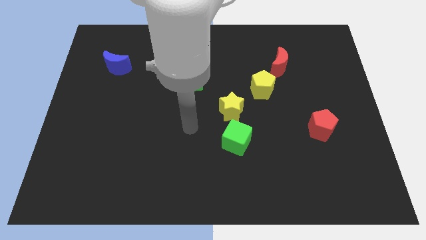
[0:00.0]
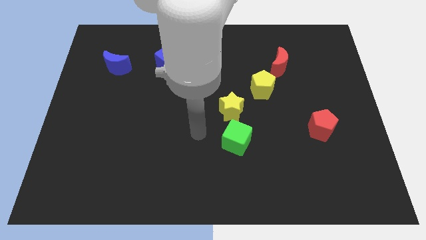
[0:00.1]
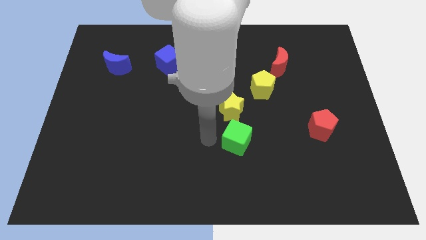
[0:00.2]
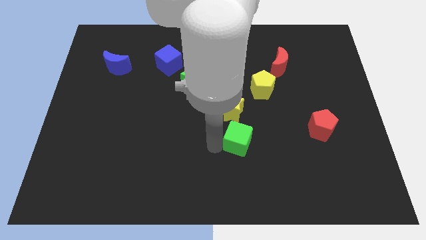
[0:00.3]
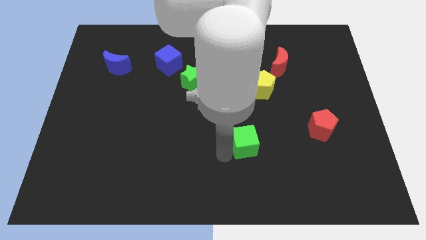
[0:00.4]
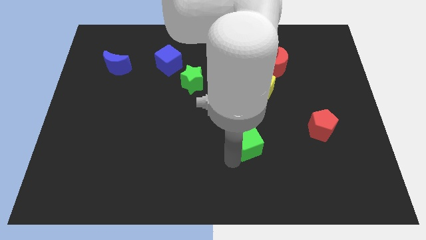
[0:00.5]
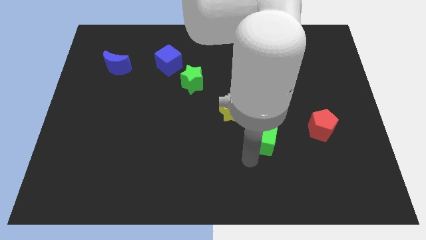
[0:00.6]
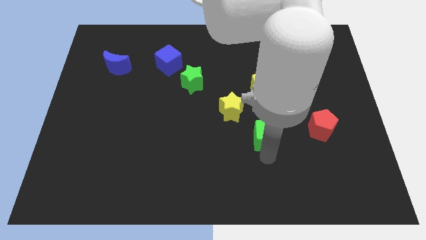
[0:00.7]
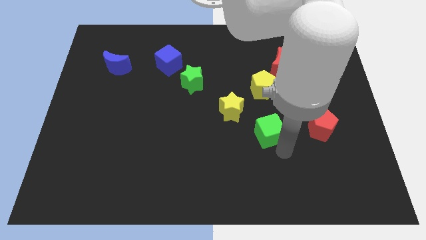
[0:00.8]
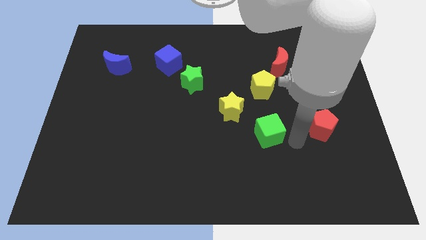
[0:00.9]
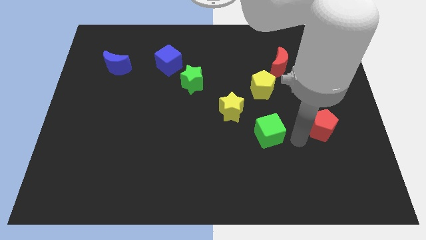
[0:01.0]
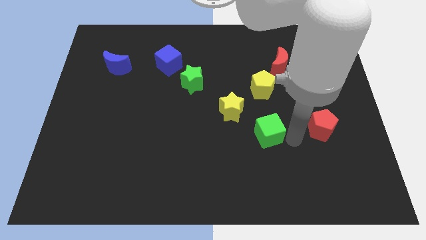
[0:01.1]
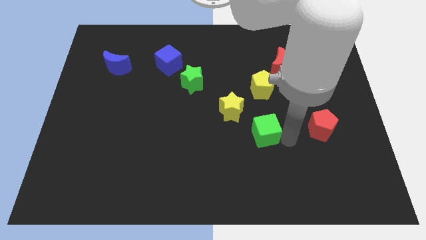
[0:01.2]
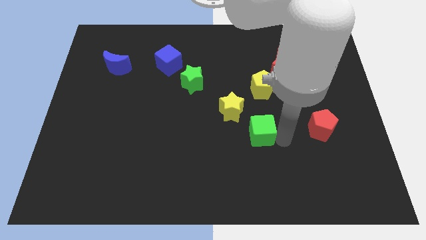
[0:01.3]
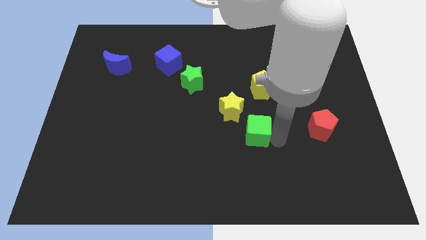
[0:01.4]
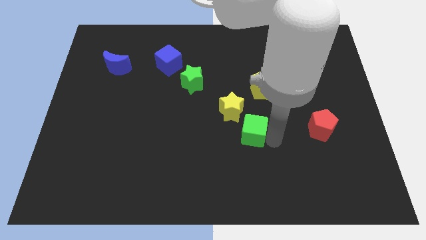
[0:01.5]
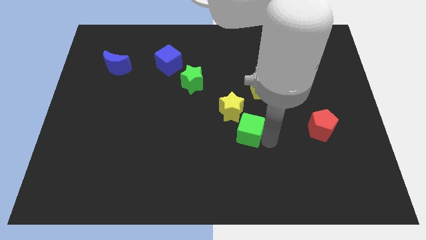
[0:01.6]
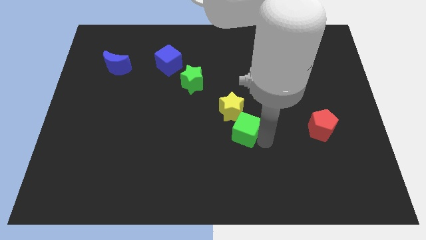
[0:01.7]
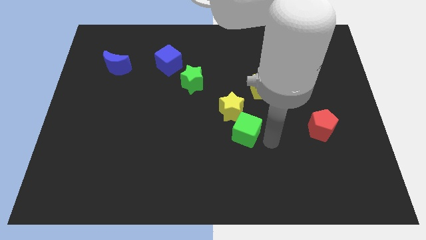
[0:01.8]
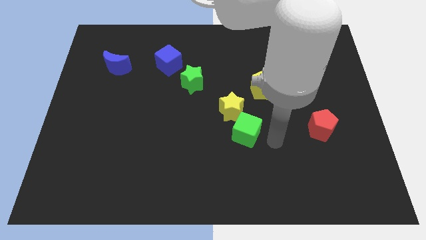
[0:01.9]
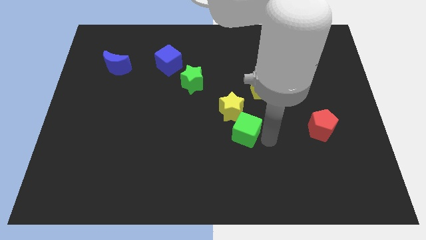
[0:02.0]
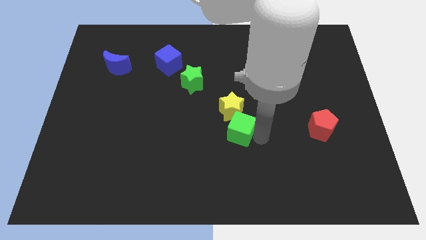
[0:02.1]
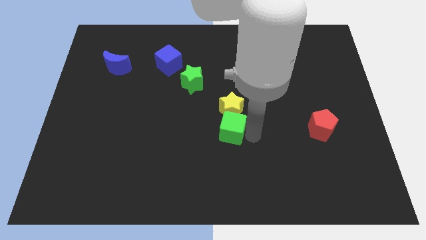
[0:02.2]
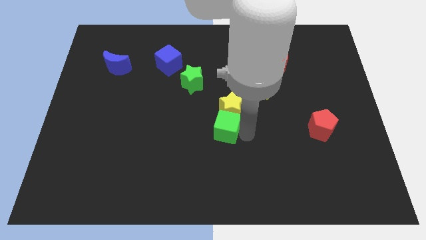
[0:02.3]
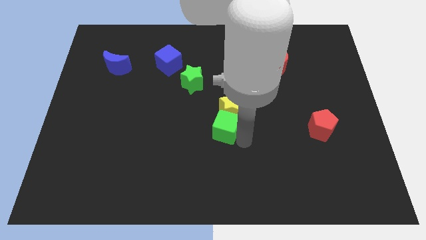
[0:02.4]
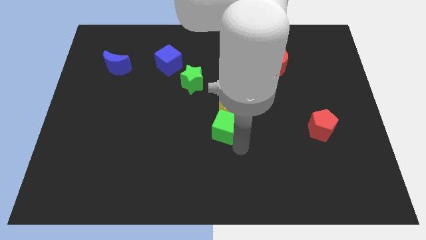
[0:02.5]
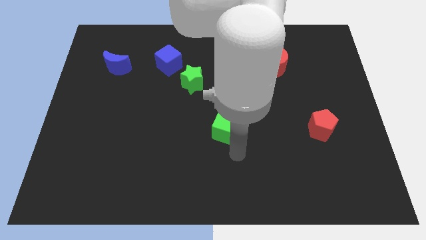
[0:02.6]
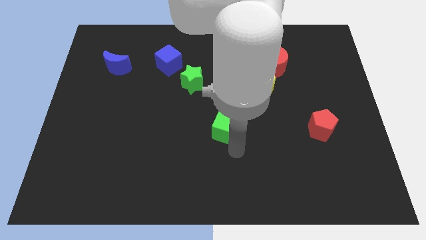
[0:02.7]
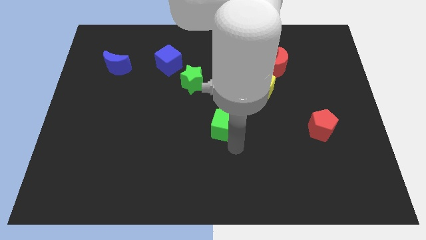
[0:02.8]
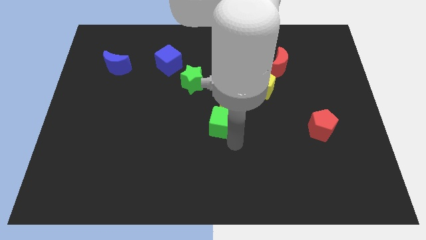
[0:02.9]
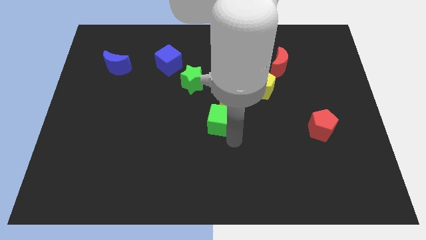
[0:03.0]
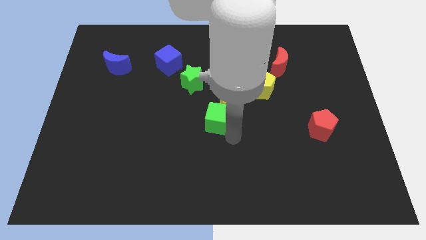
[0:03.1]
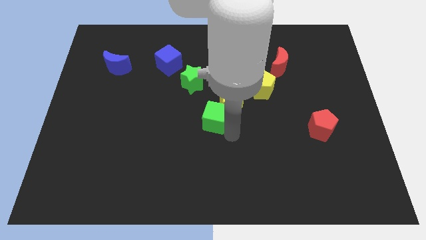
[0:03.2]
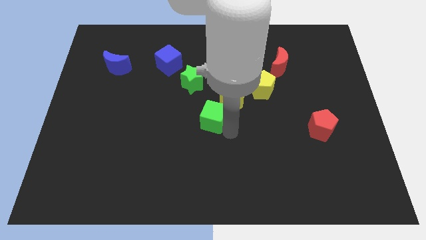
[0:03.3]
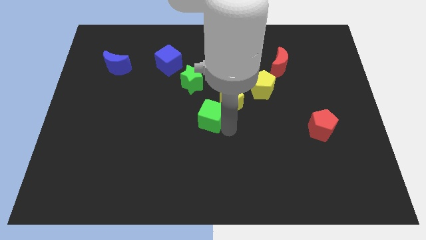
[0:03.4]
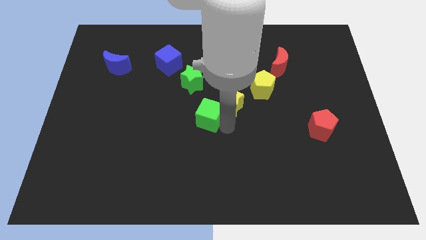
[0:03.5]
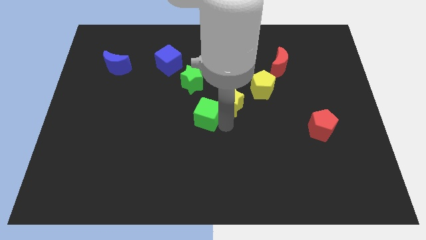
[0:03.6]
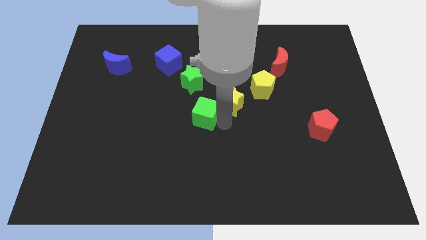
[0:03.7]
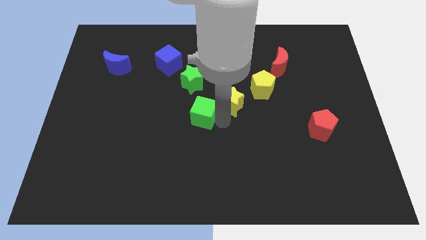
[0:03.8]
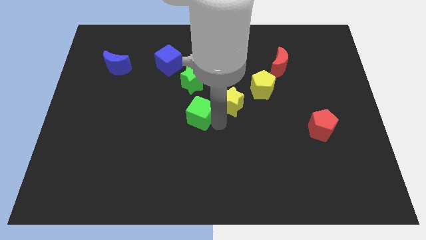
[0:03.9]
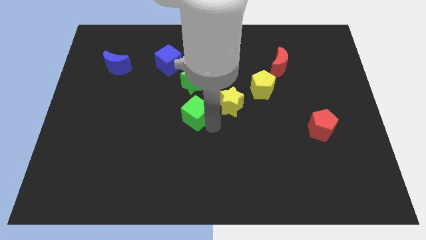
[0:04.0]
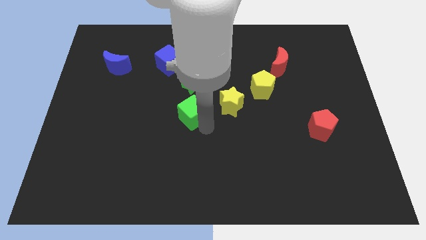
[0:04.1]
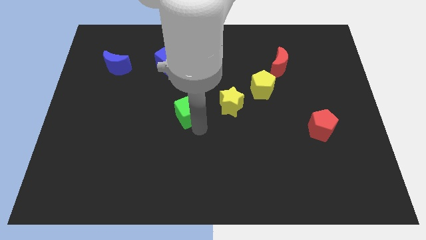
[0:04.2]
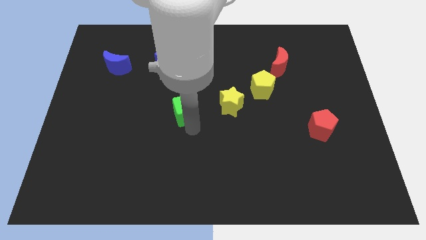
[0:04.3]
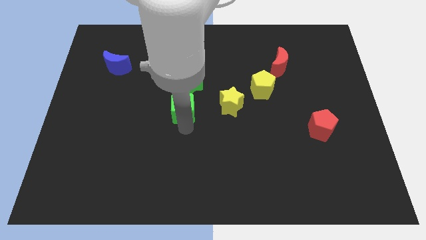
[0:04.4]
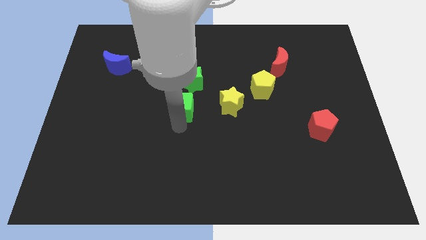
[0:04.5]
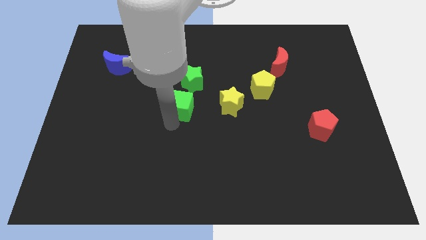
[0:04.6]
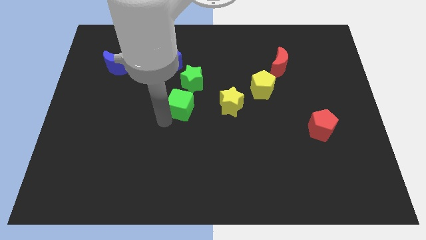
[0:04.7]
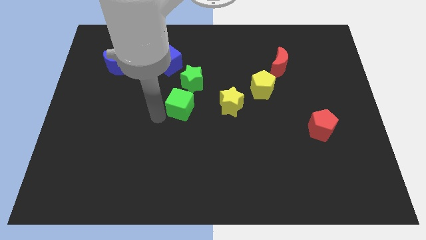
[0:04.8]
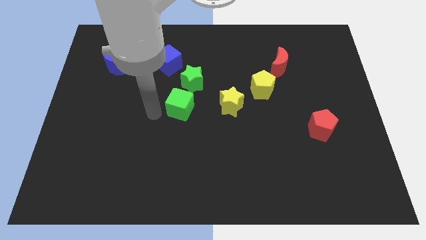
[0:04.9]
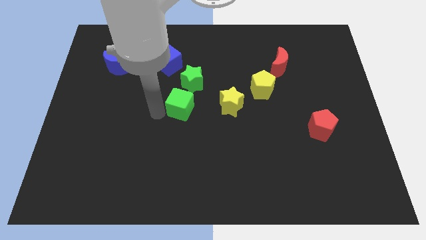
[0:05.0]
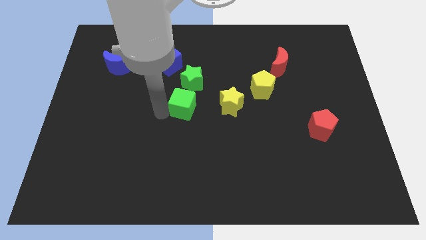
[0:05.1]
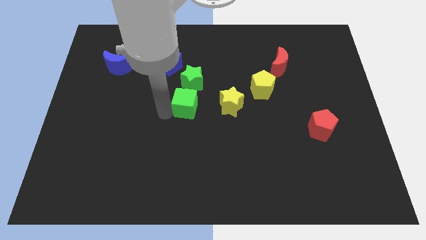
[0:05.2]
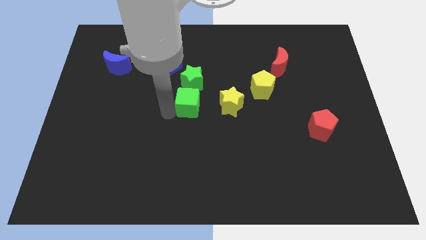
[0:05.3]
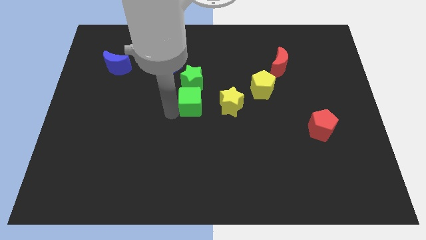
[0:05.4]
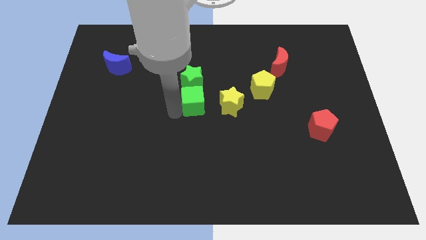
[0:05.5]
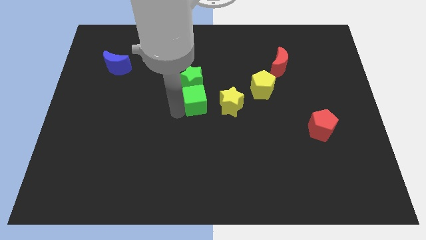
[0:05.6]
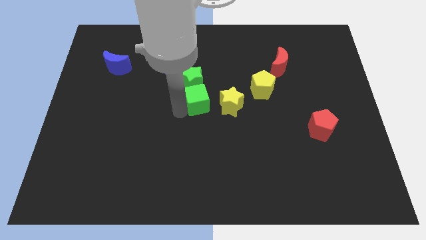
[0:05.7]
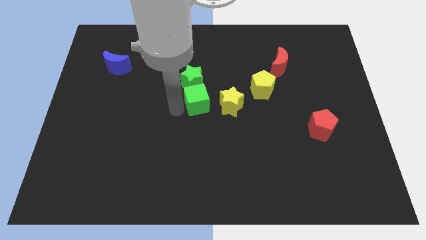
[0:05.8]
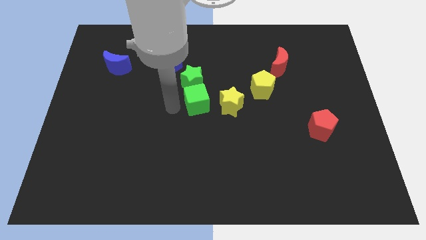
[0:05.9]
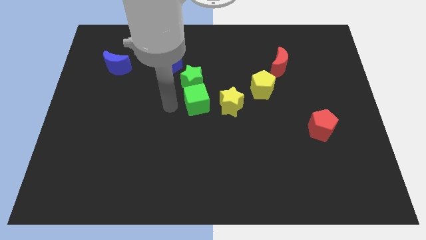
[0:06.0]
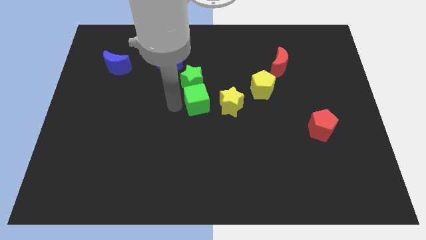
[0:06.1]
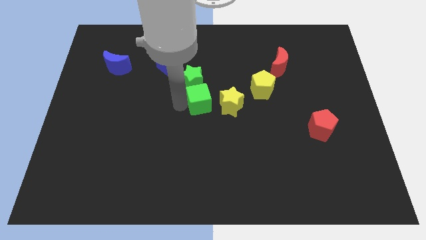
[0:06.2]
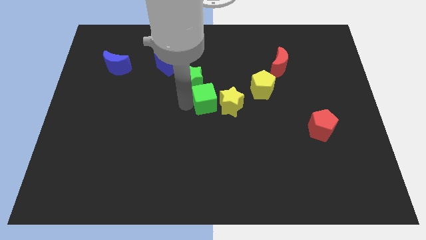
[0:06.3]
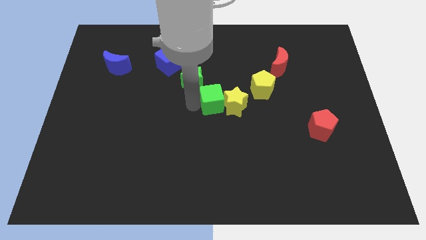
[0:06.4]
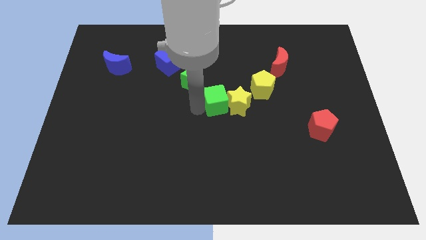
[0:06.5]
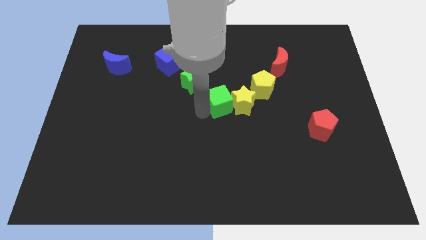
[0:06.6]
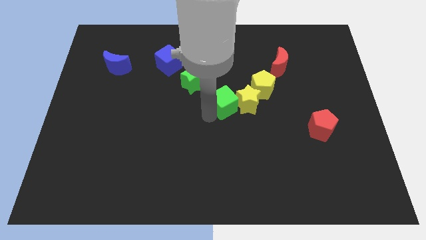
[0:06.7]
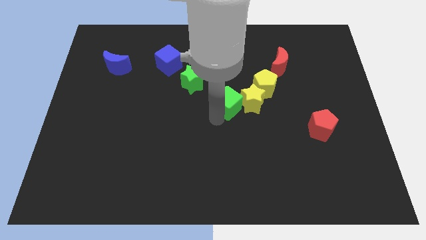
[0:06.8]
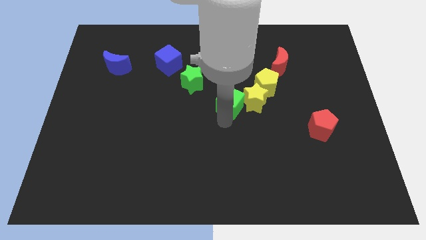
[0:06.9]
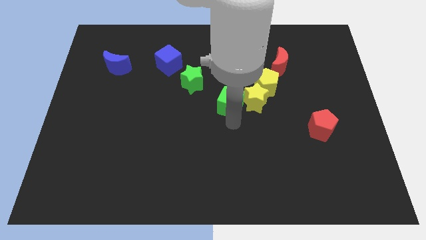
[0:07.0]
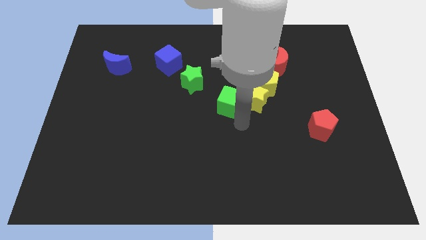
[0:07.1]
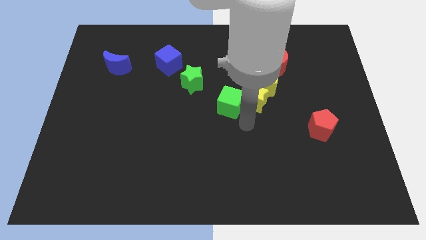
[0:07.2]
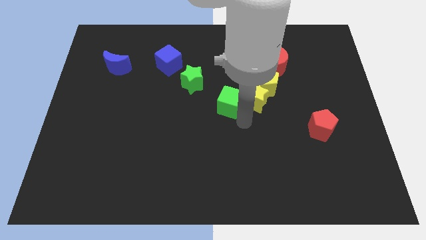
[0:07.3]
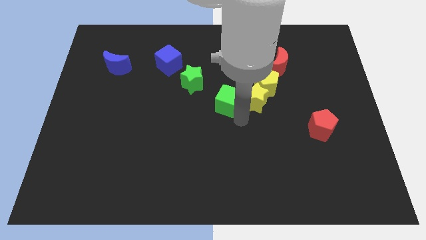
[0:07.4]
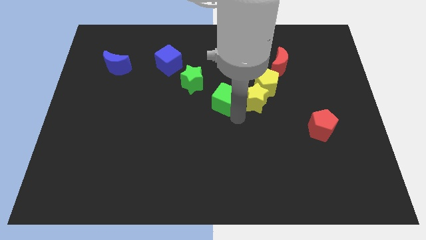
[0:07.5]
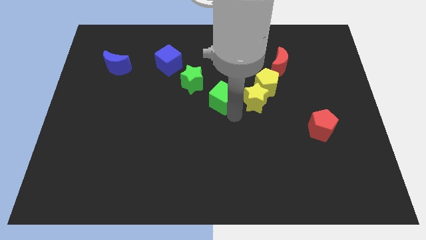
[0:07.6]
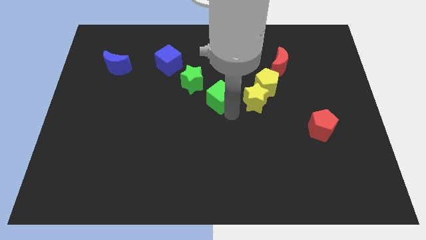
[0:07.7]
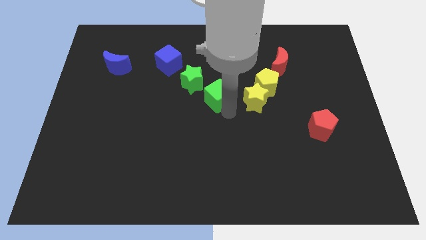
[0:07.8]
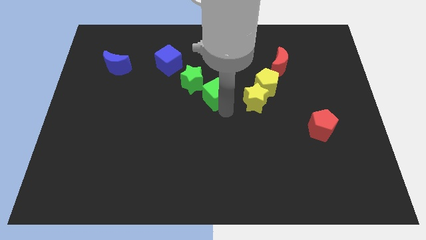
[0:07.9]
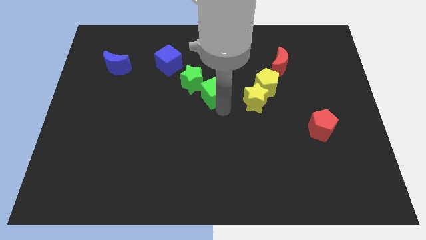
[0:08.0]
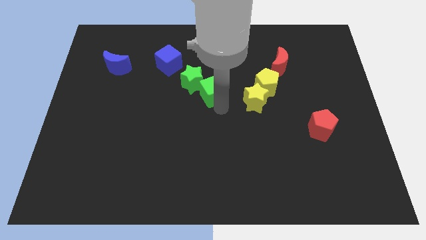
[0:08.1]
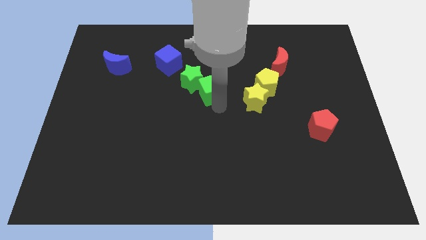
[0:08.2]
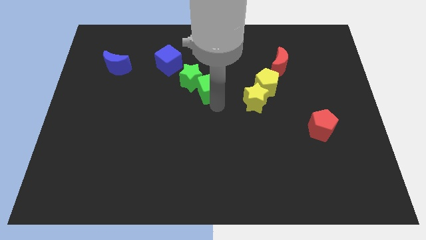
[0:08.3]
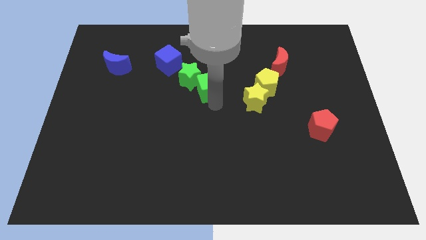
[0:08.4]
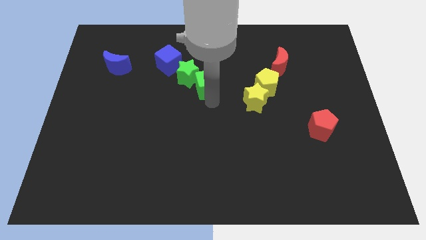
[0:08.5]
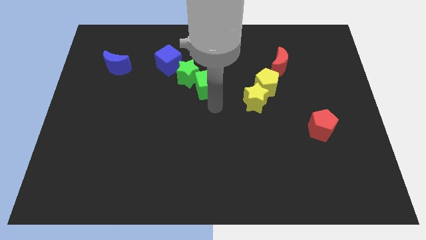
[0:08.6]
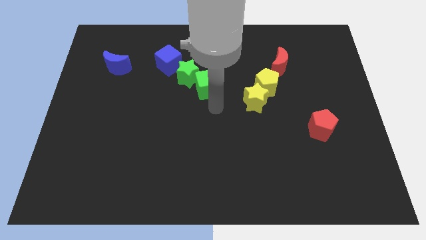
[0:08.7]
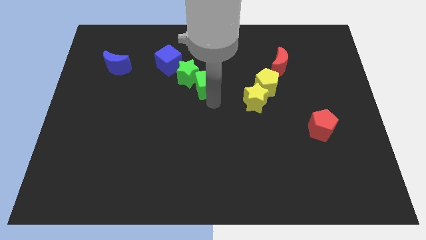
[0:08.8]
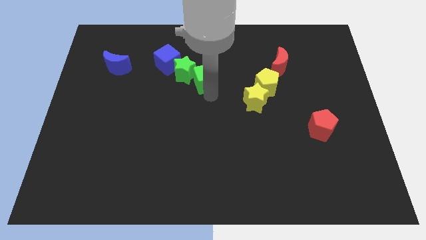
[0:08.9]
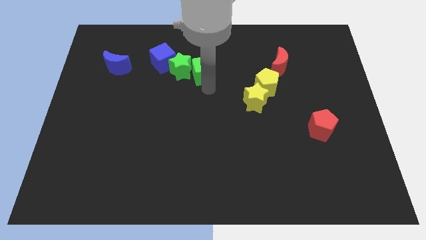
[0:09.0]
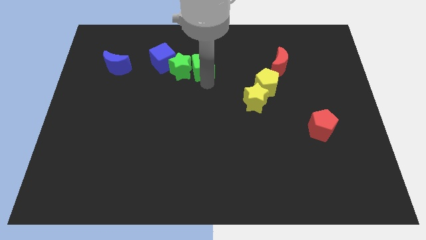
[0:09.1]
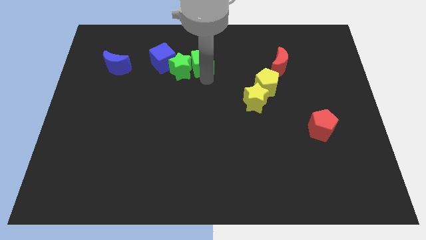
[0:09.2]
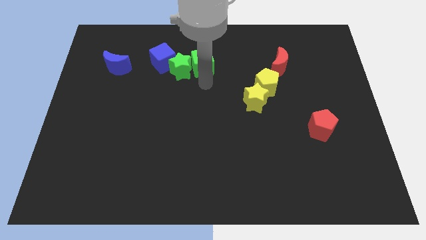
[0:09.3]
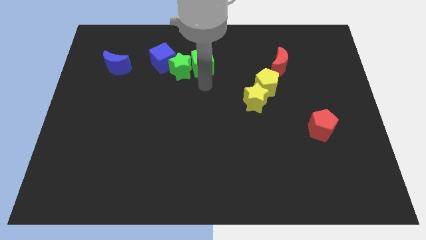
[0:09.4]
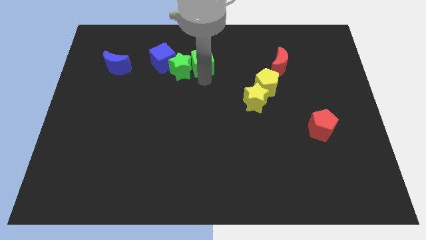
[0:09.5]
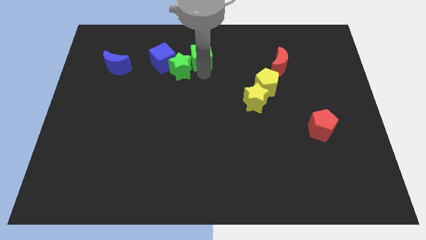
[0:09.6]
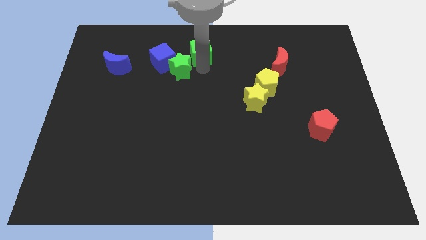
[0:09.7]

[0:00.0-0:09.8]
push the green cube to the top side
